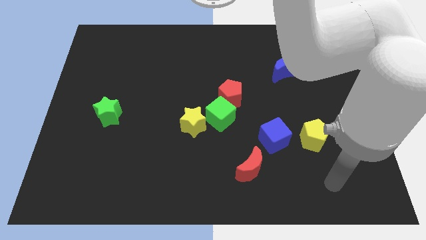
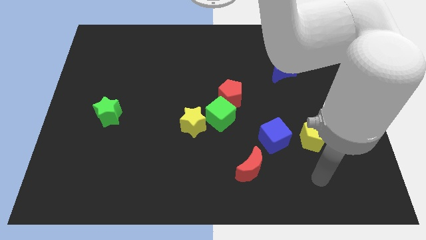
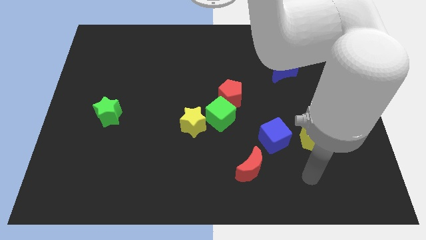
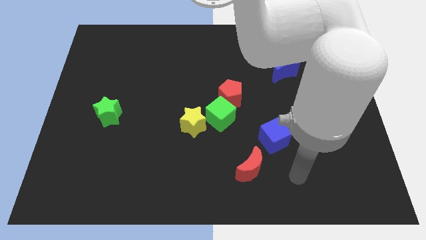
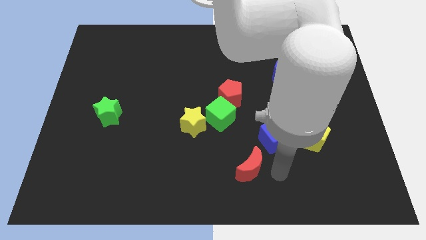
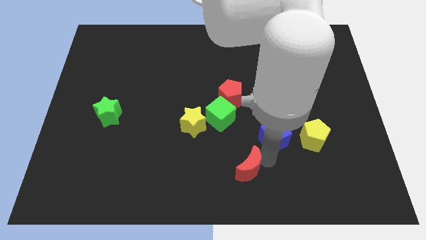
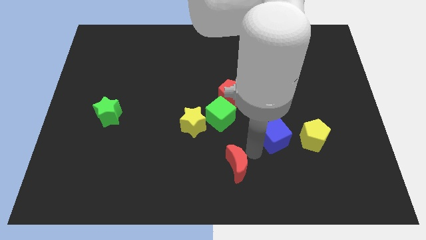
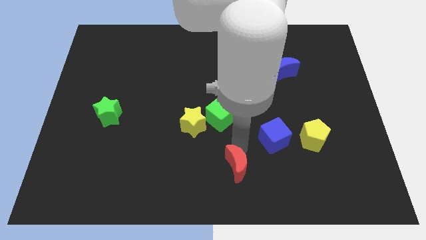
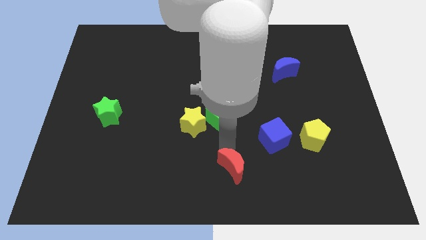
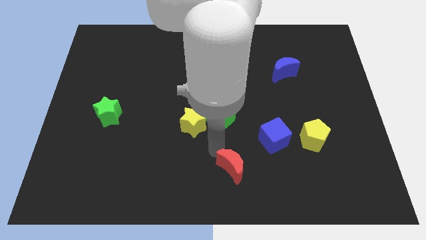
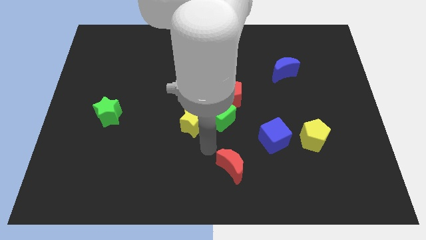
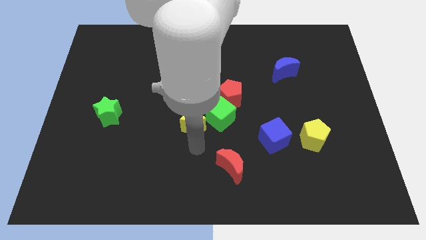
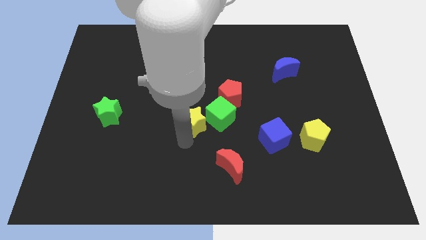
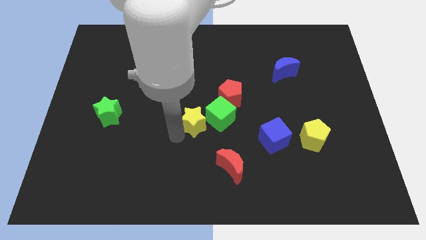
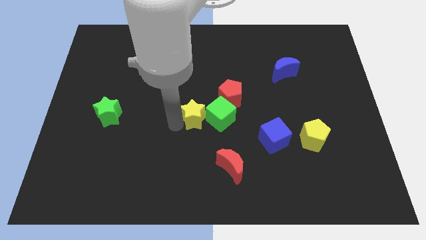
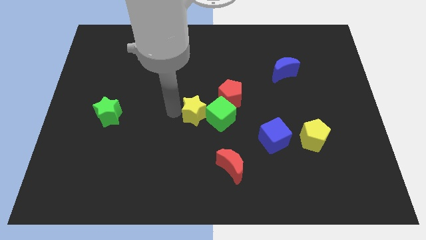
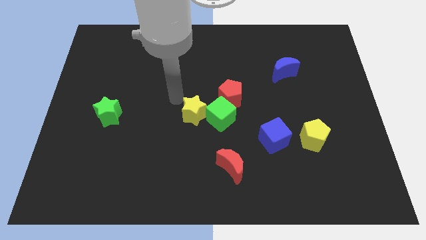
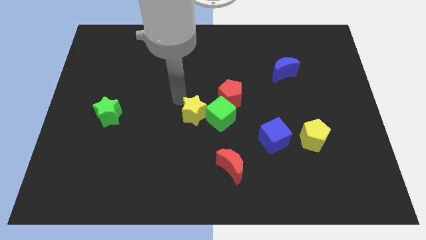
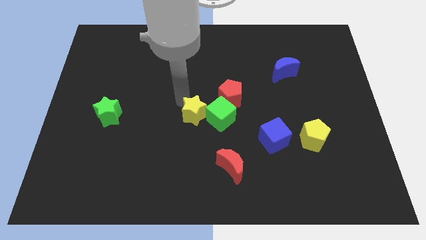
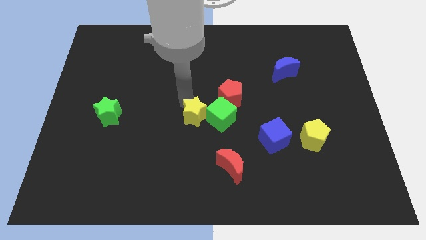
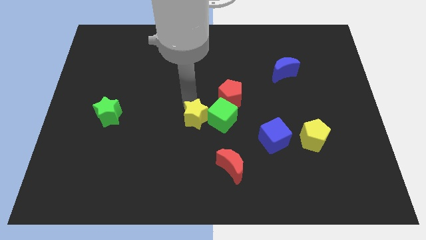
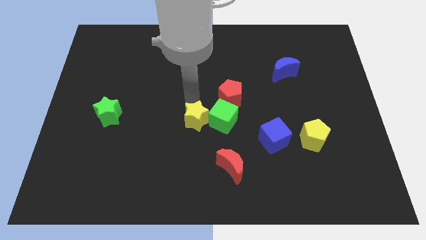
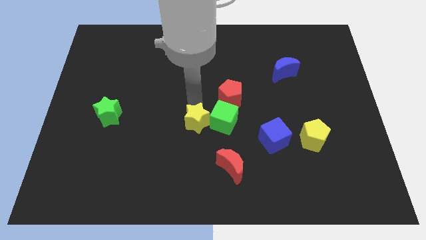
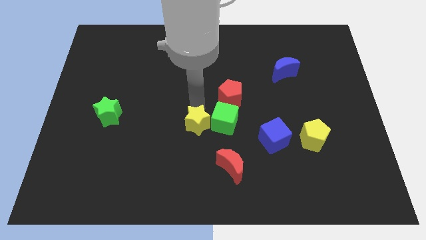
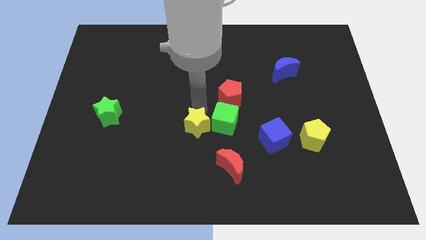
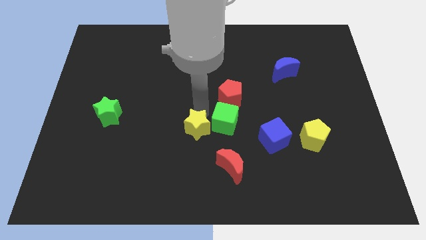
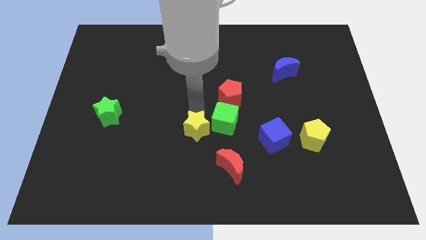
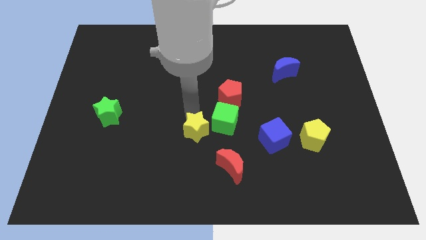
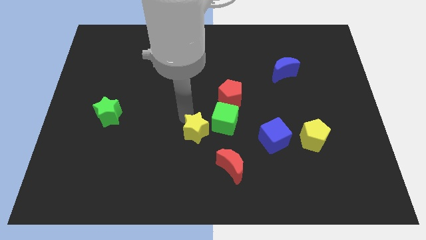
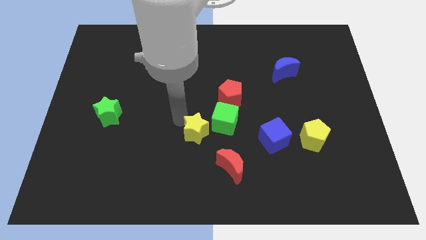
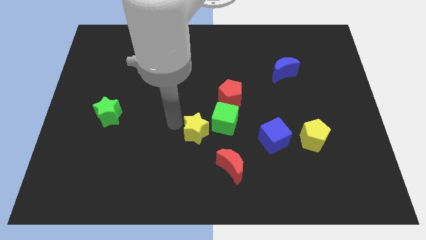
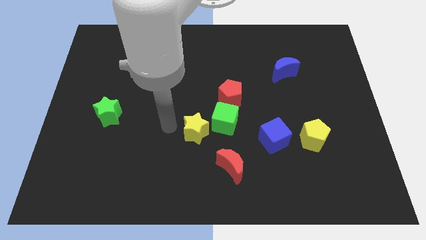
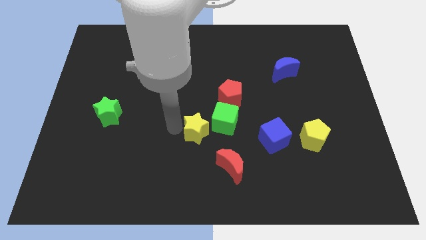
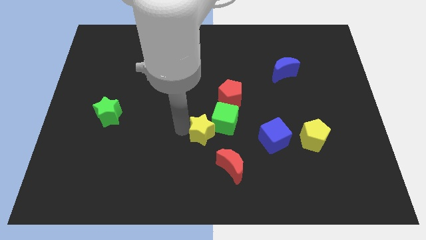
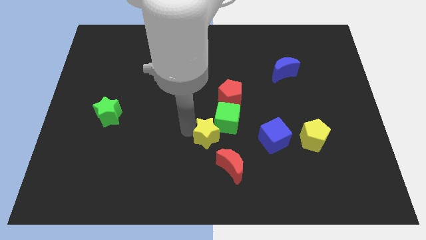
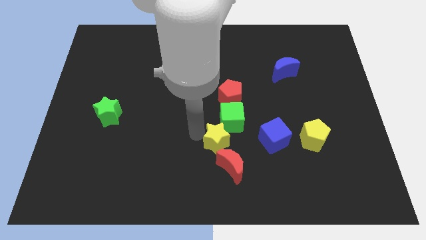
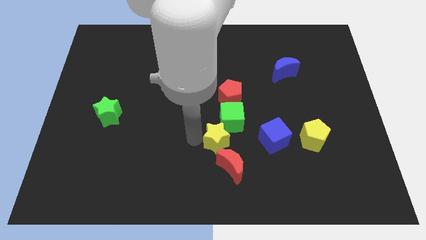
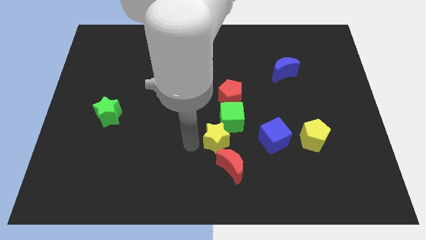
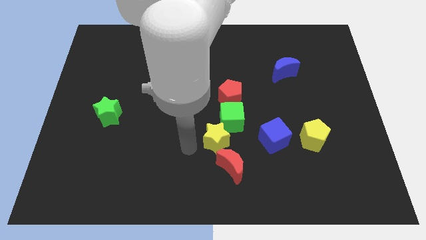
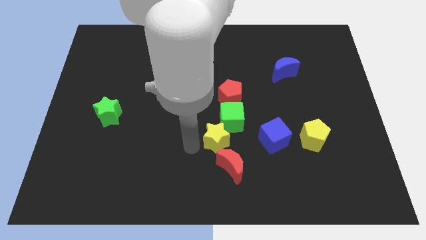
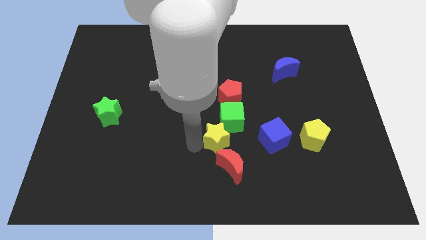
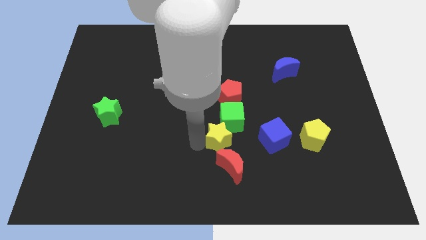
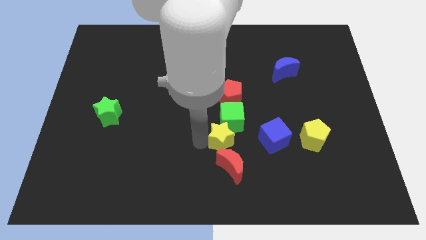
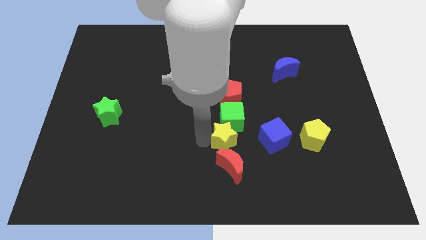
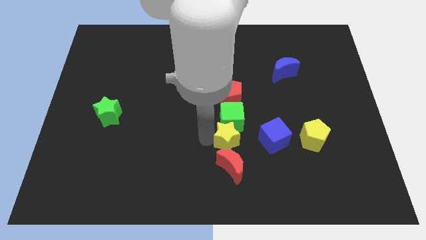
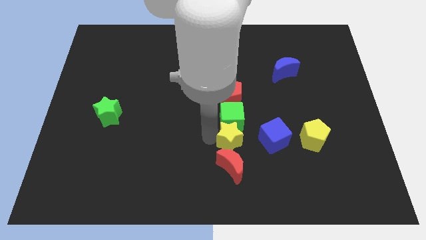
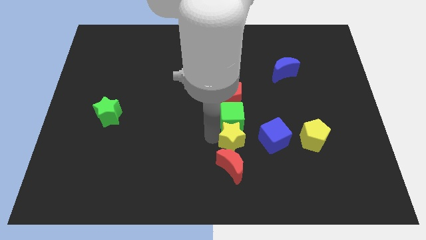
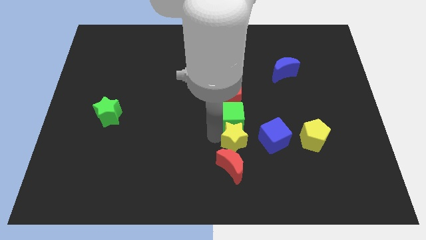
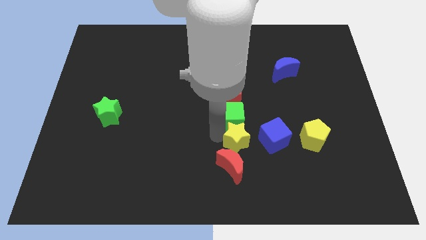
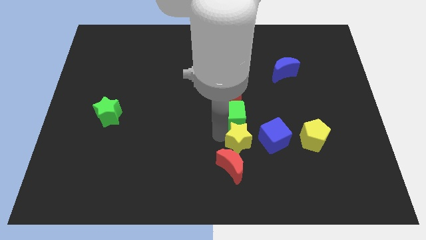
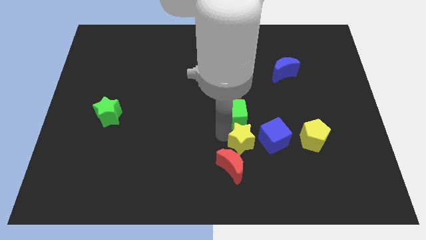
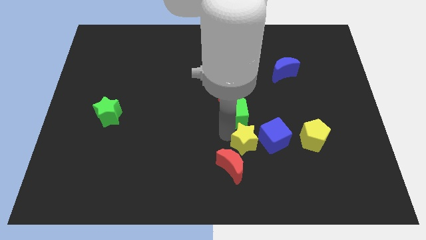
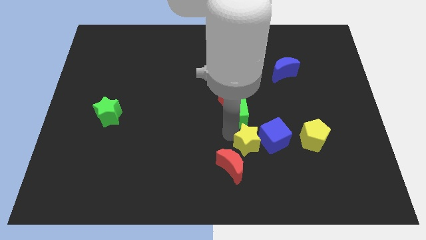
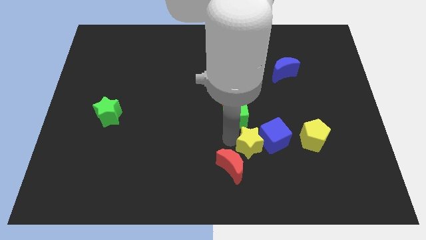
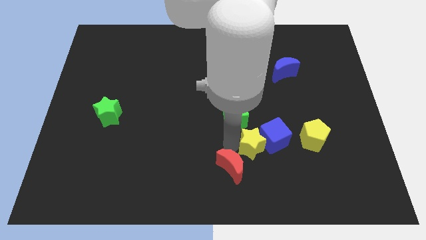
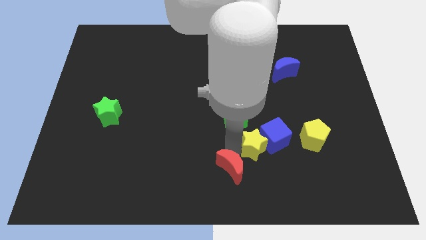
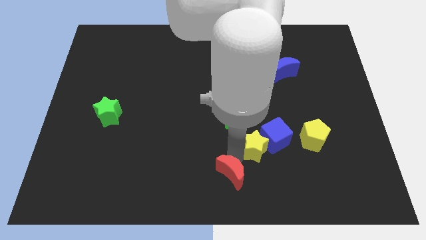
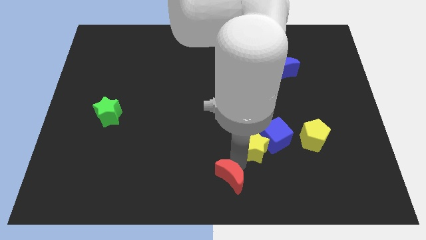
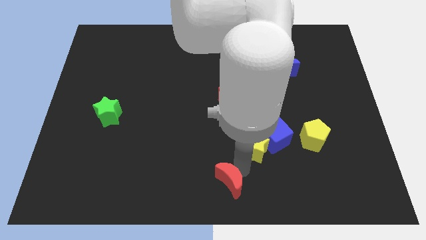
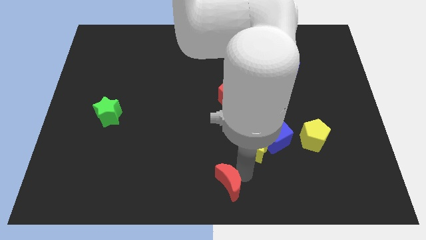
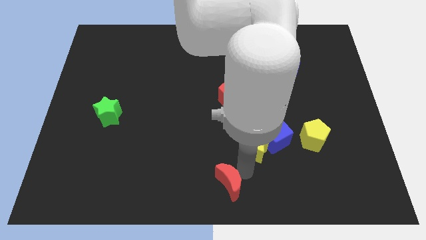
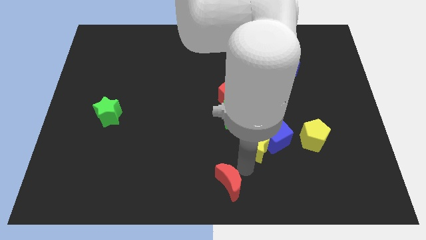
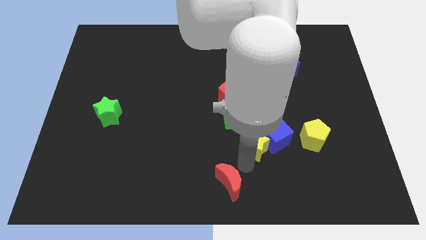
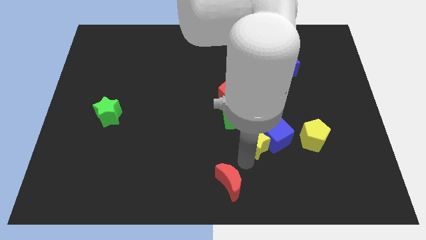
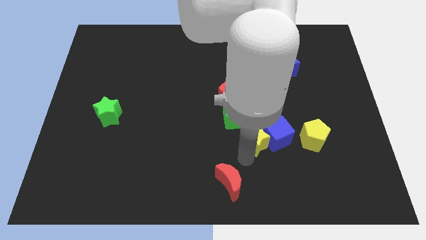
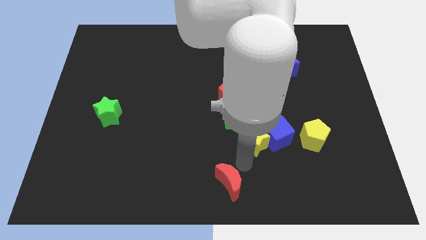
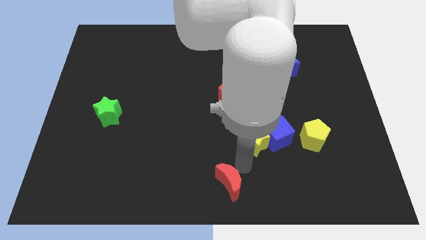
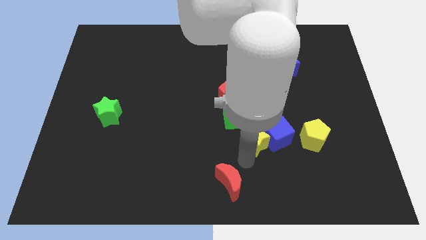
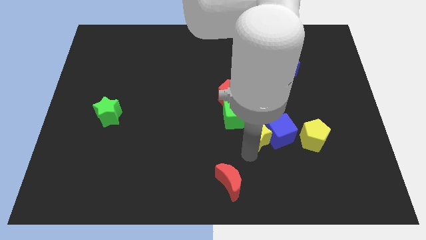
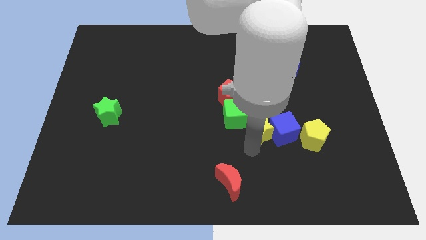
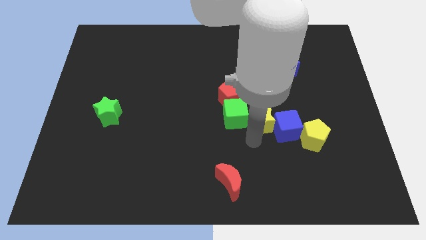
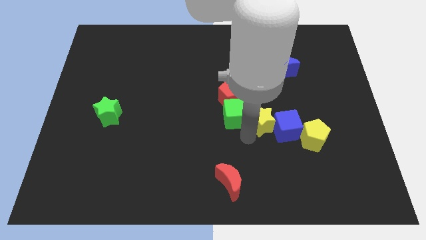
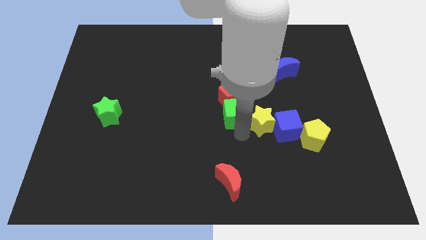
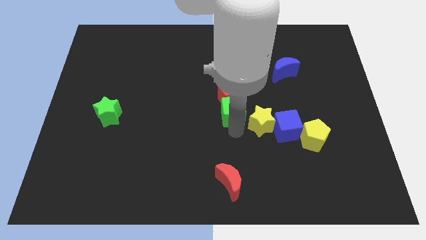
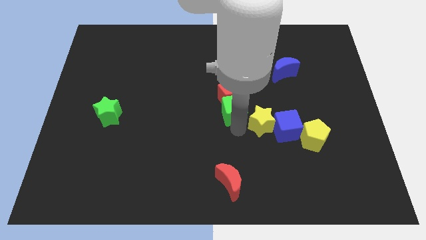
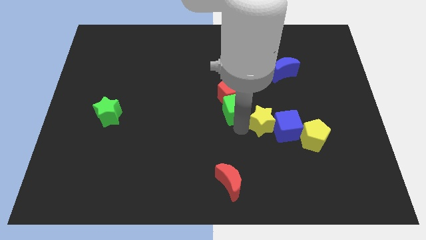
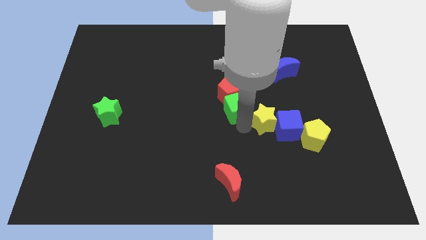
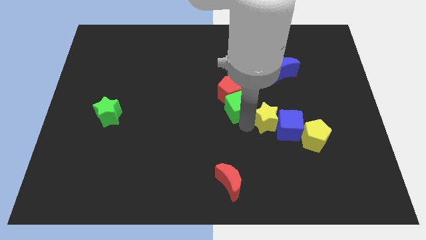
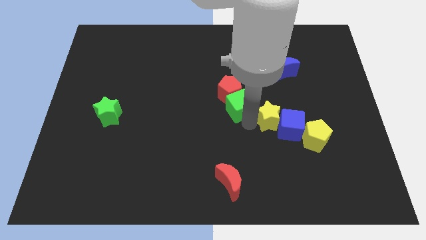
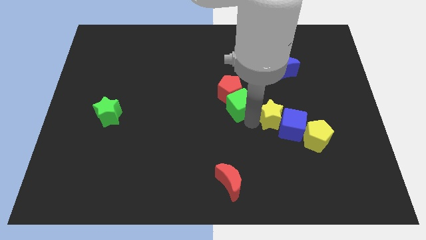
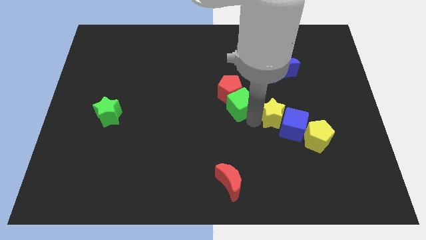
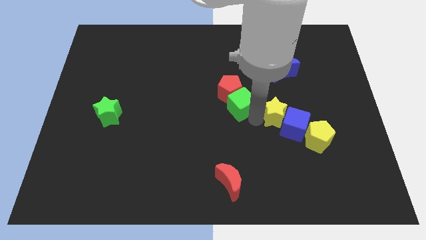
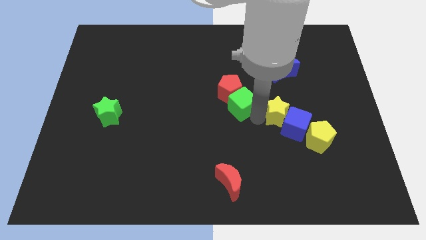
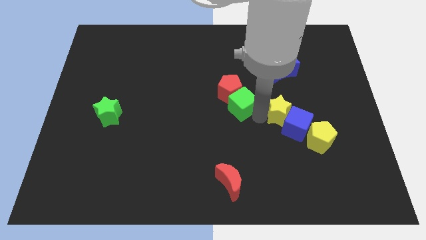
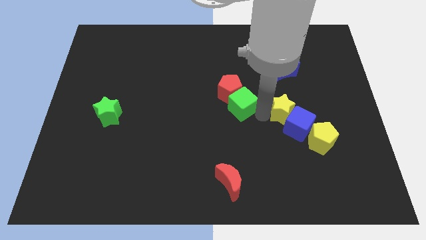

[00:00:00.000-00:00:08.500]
move the yellow star to the right
